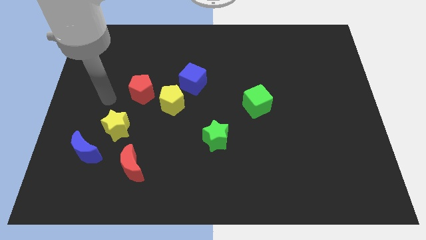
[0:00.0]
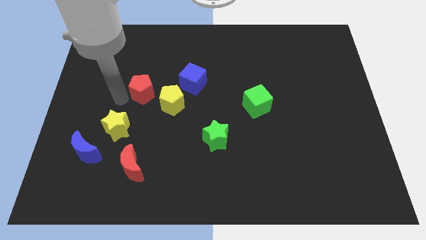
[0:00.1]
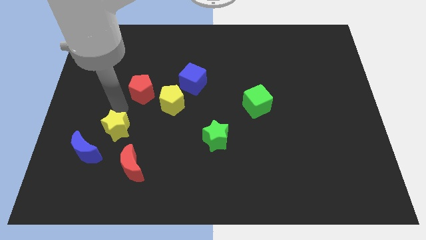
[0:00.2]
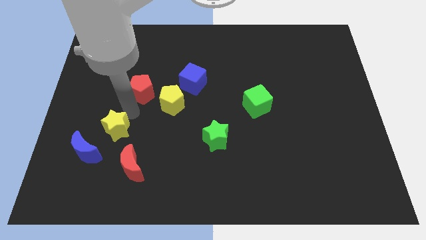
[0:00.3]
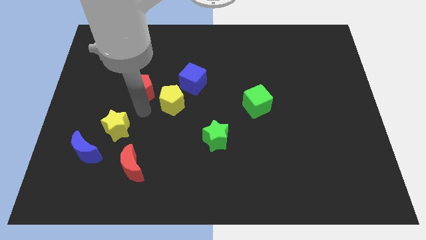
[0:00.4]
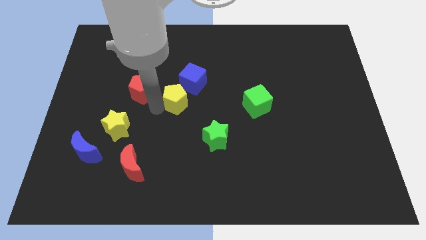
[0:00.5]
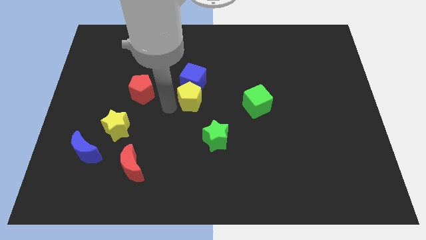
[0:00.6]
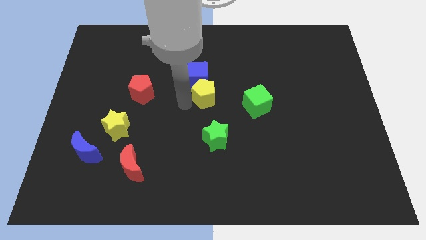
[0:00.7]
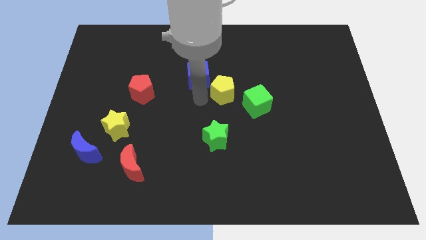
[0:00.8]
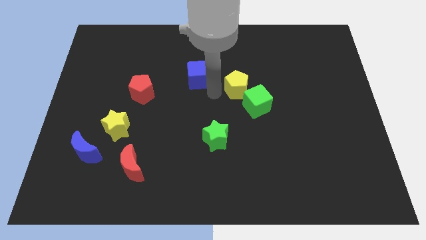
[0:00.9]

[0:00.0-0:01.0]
pull the blue cube apart from the yellow pentagon

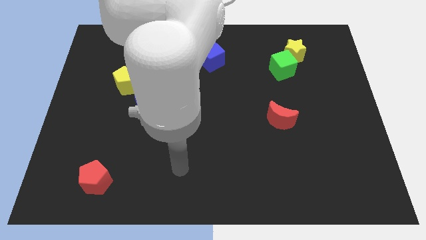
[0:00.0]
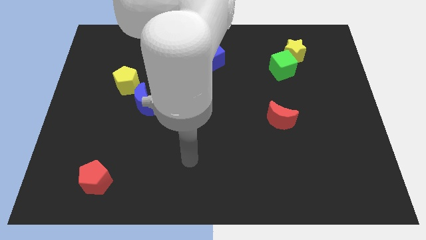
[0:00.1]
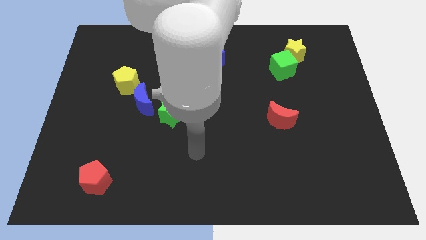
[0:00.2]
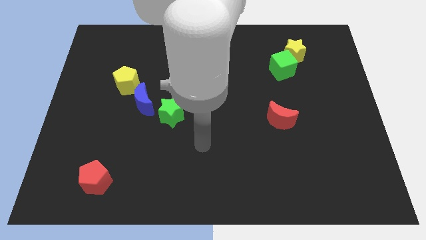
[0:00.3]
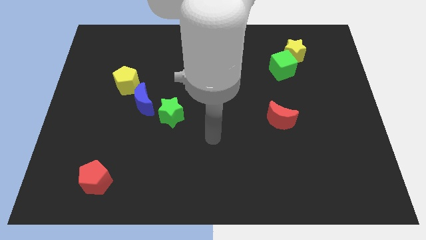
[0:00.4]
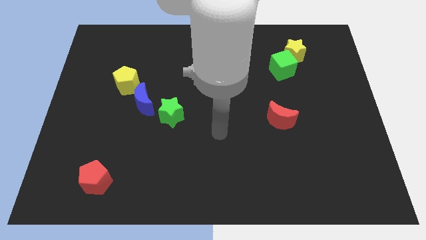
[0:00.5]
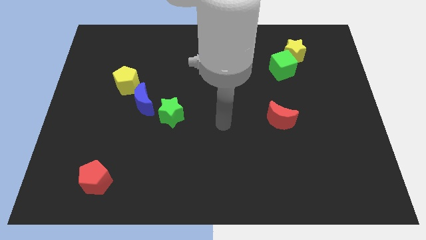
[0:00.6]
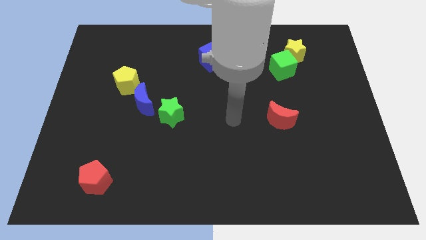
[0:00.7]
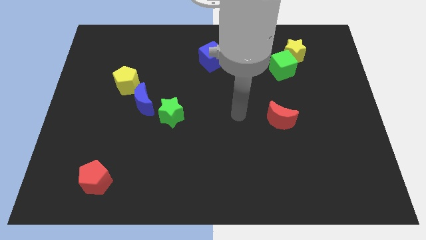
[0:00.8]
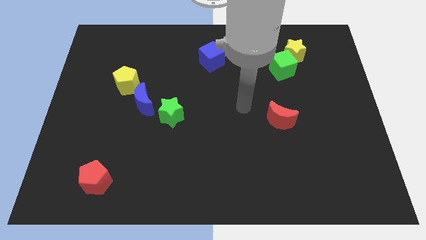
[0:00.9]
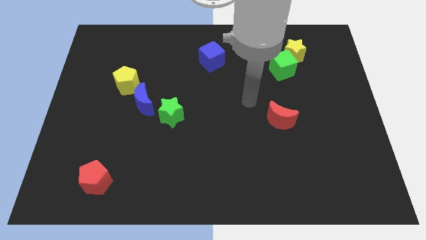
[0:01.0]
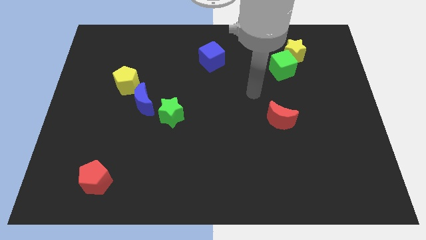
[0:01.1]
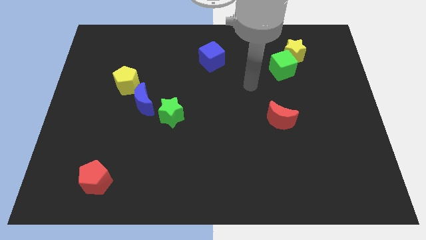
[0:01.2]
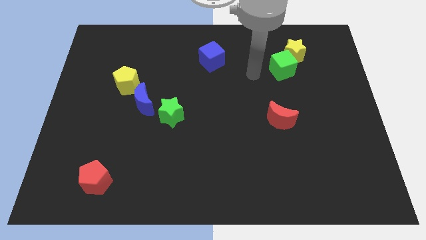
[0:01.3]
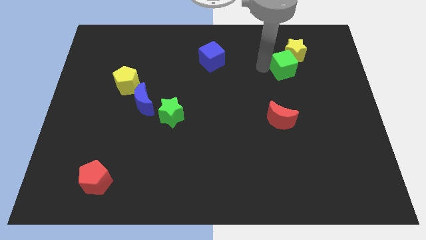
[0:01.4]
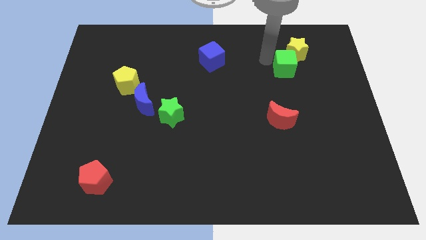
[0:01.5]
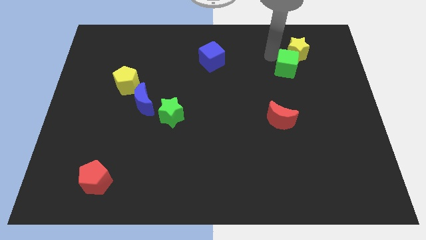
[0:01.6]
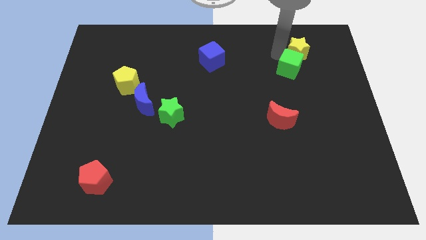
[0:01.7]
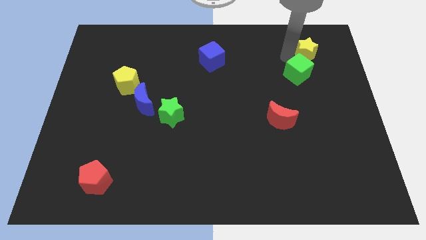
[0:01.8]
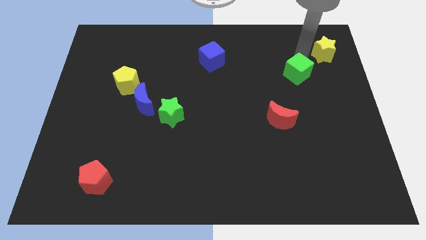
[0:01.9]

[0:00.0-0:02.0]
pull the green cube apart from the yellow star

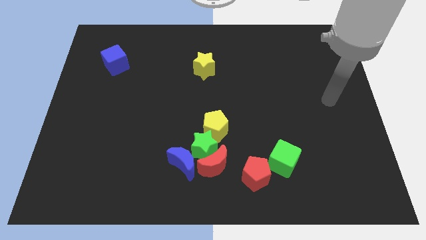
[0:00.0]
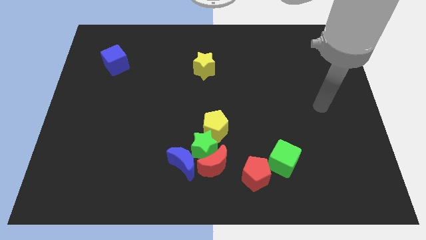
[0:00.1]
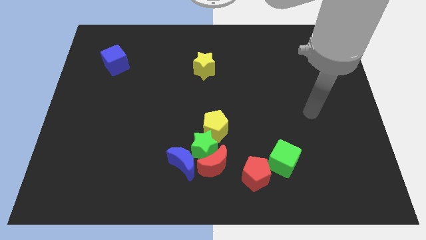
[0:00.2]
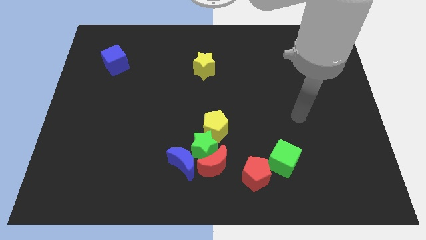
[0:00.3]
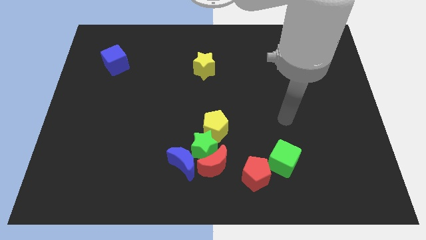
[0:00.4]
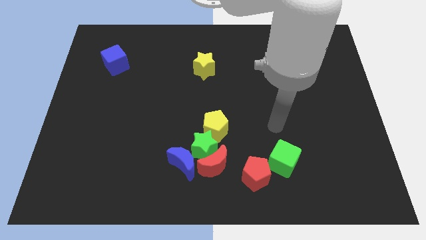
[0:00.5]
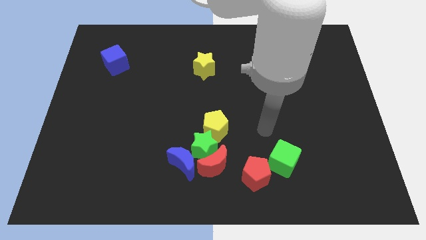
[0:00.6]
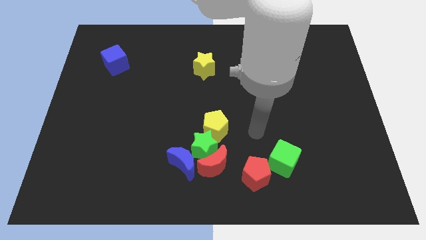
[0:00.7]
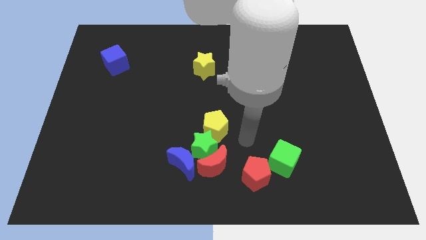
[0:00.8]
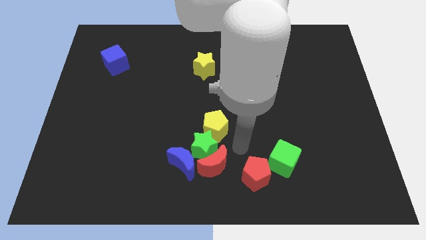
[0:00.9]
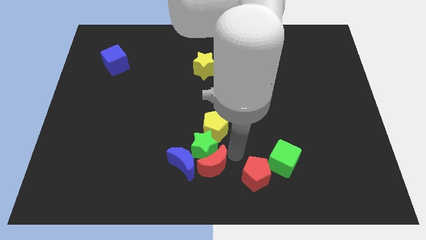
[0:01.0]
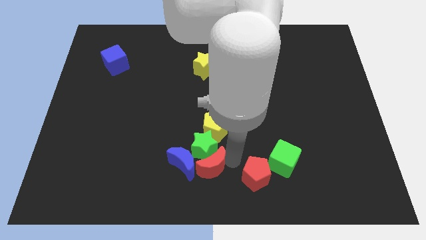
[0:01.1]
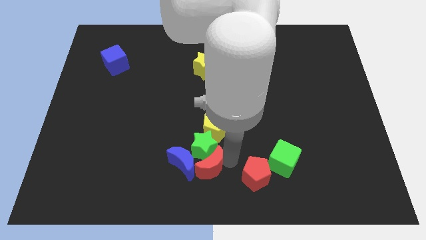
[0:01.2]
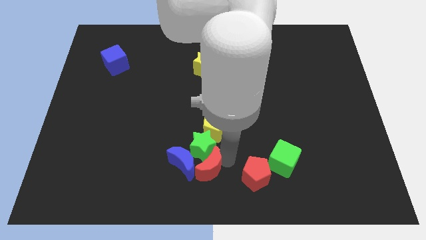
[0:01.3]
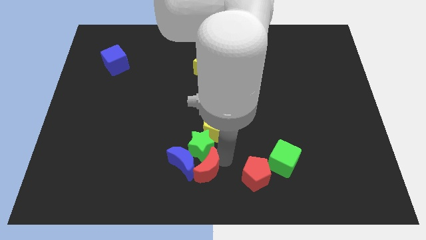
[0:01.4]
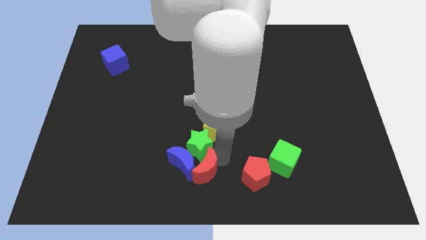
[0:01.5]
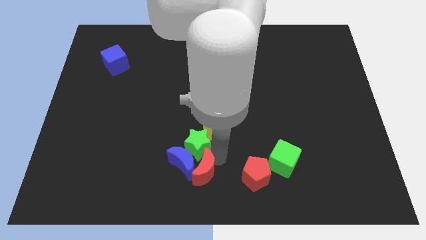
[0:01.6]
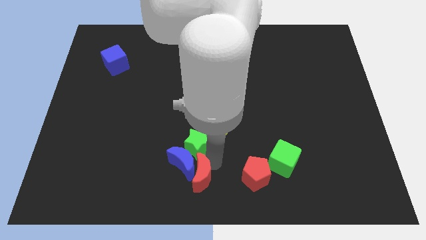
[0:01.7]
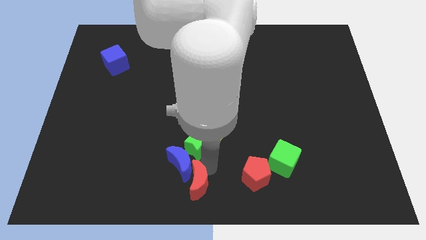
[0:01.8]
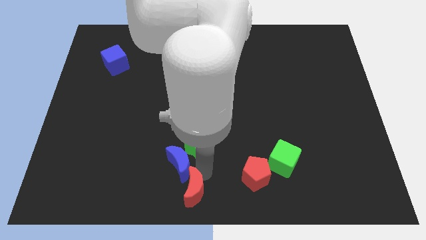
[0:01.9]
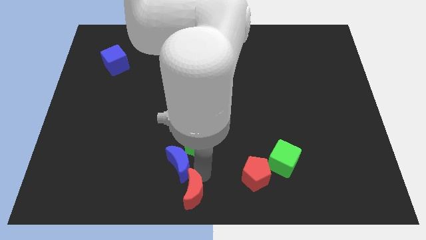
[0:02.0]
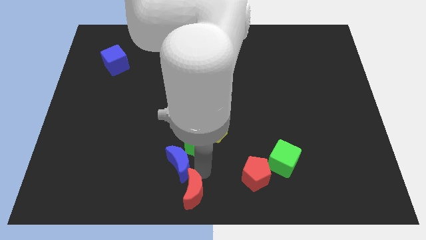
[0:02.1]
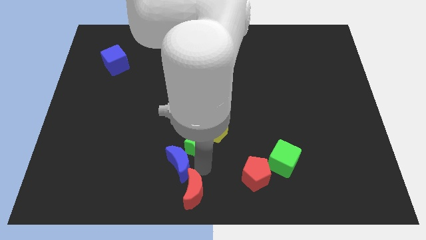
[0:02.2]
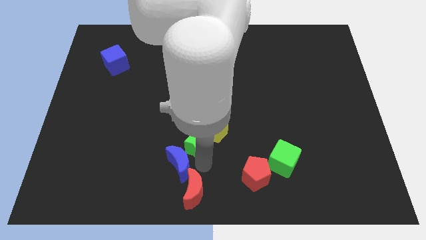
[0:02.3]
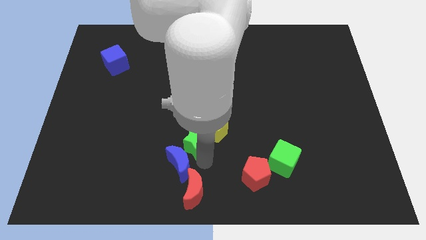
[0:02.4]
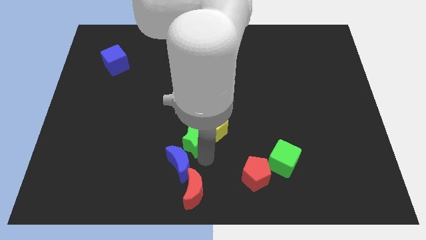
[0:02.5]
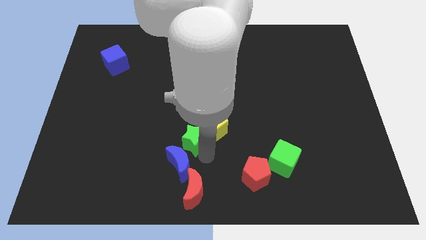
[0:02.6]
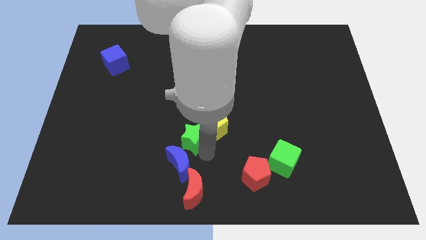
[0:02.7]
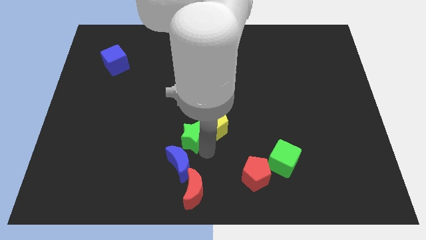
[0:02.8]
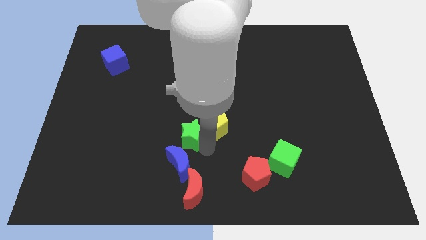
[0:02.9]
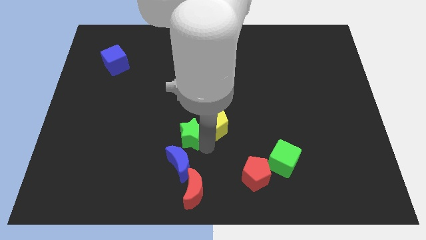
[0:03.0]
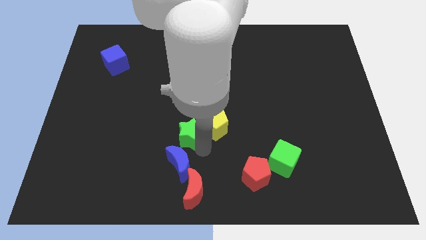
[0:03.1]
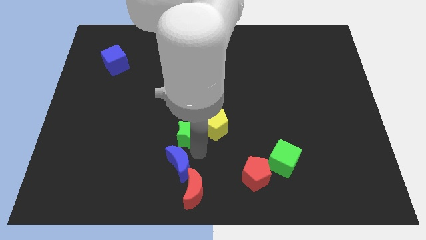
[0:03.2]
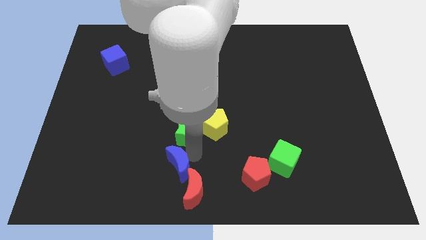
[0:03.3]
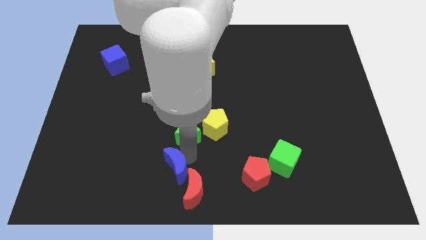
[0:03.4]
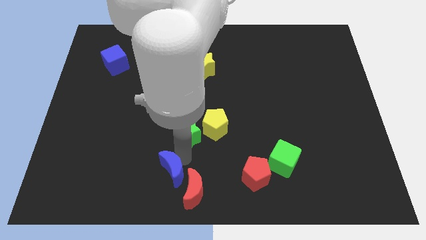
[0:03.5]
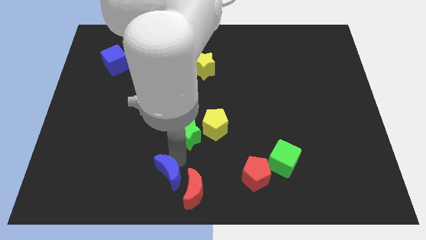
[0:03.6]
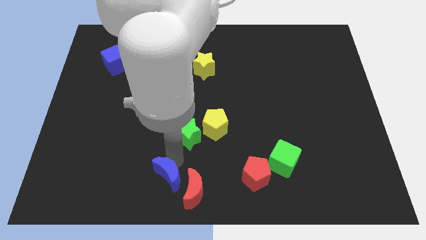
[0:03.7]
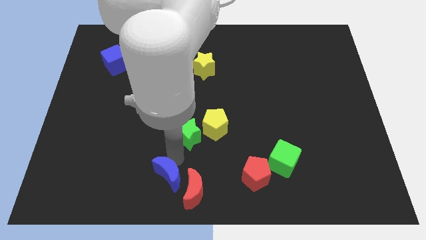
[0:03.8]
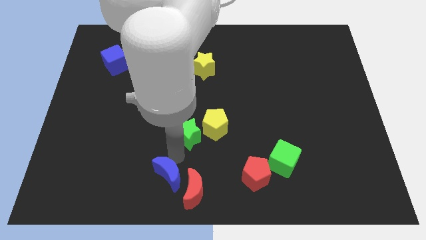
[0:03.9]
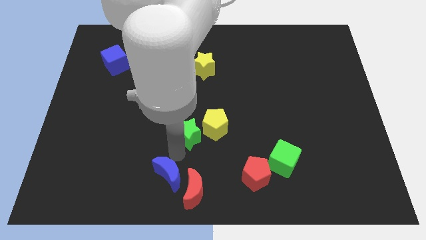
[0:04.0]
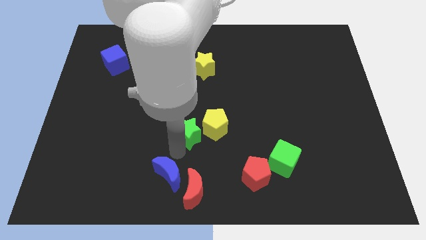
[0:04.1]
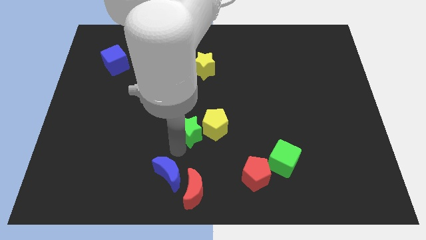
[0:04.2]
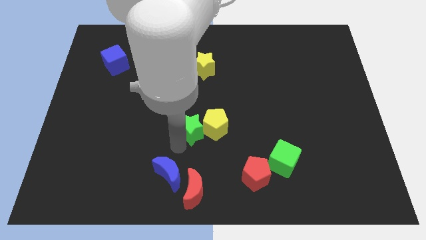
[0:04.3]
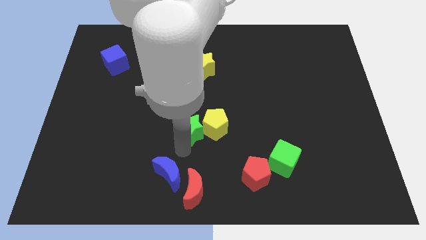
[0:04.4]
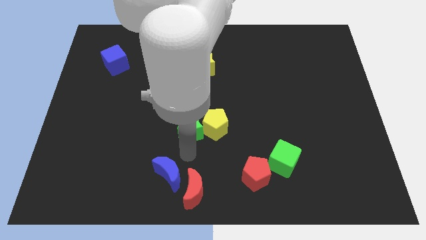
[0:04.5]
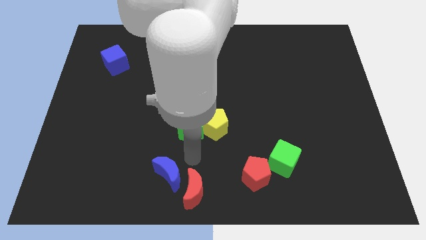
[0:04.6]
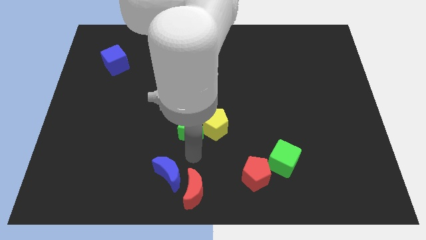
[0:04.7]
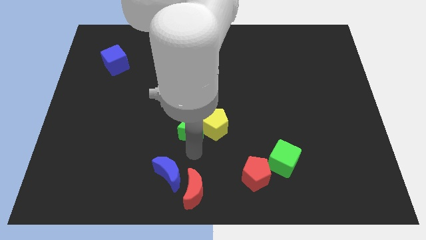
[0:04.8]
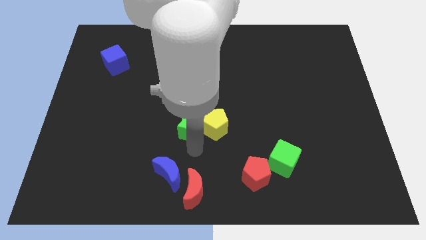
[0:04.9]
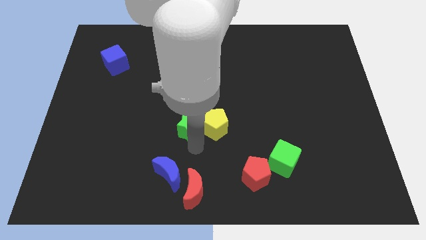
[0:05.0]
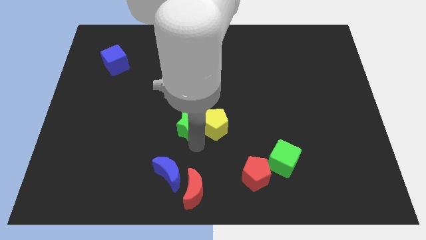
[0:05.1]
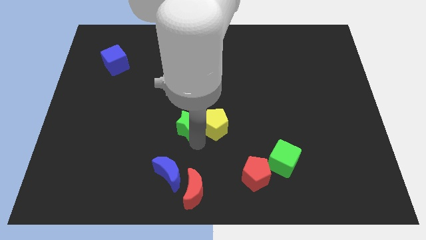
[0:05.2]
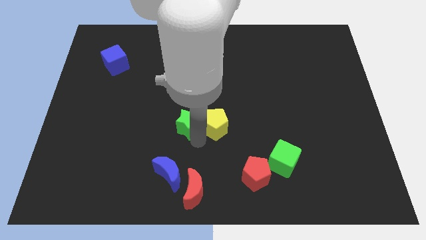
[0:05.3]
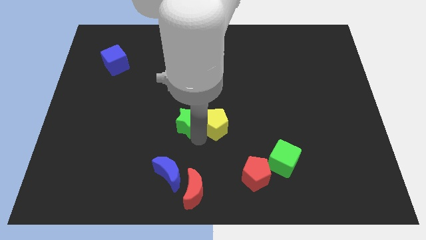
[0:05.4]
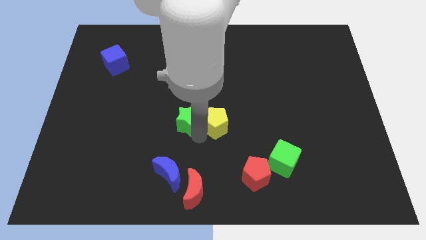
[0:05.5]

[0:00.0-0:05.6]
separate the green star from the red moon, yellow pentagon, and blue moon

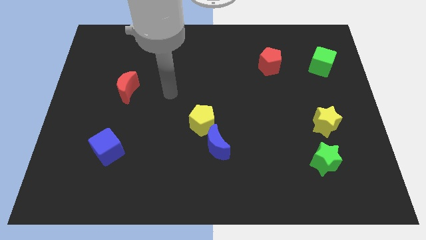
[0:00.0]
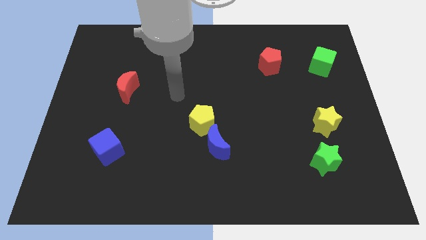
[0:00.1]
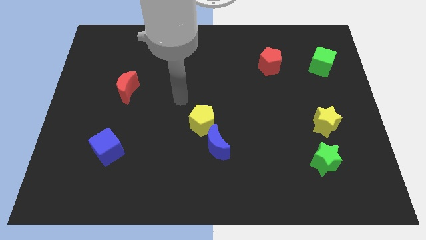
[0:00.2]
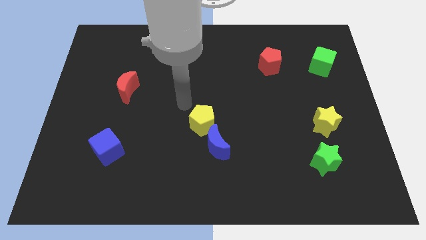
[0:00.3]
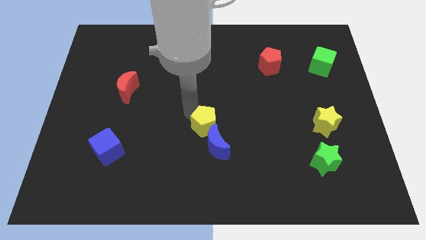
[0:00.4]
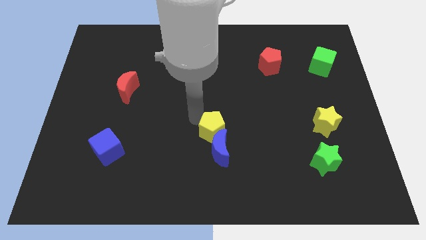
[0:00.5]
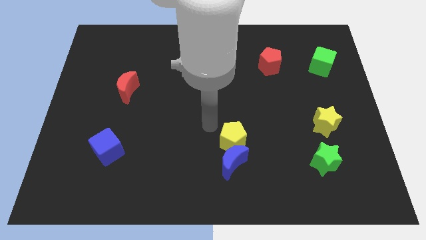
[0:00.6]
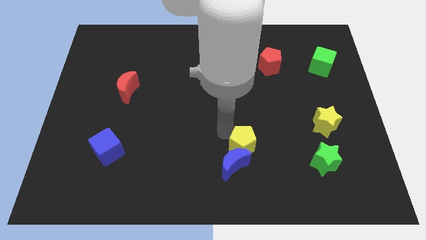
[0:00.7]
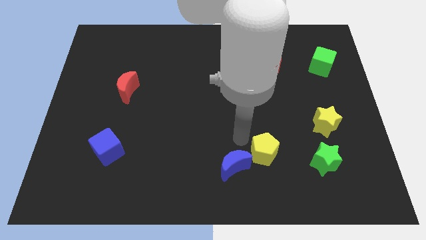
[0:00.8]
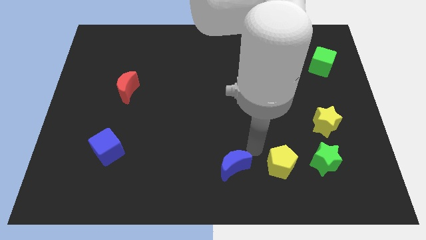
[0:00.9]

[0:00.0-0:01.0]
pull the blue moon apart from the yellow pentagon
